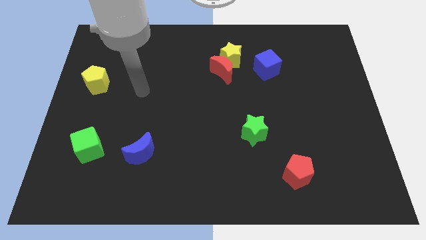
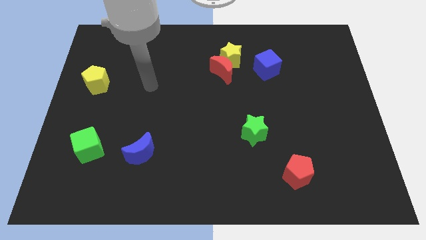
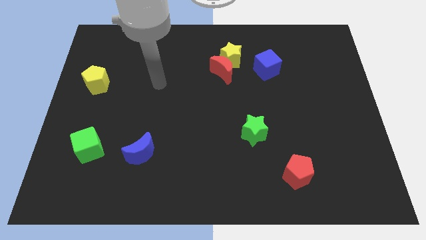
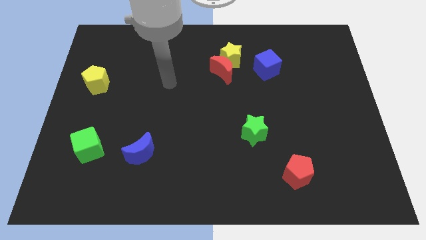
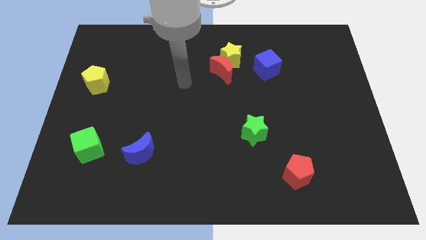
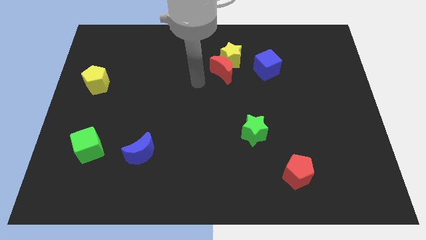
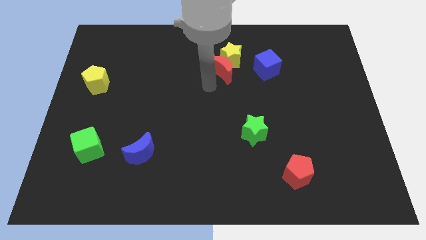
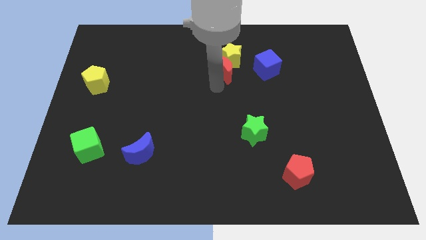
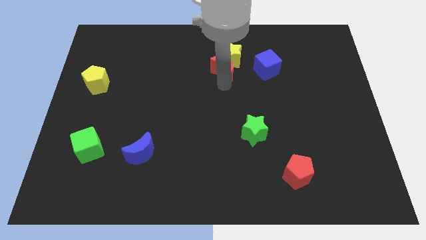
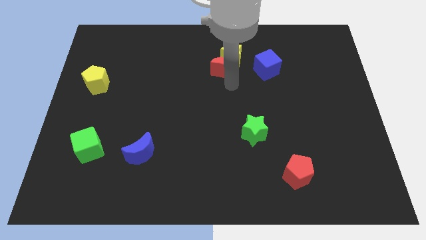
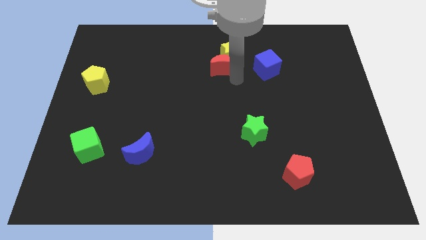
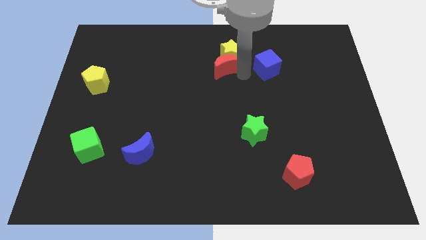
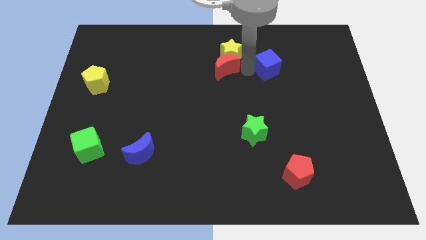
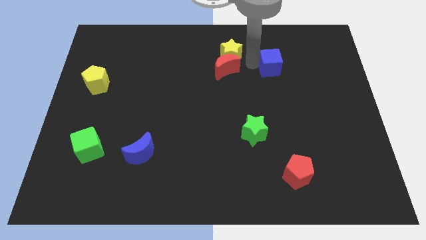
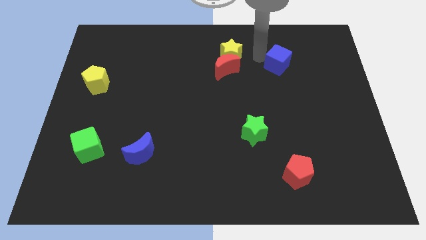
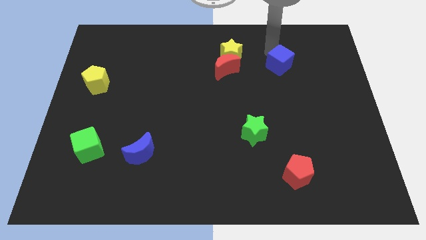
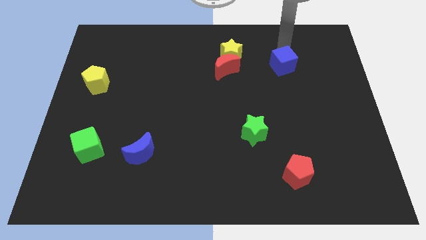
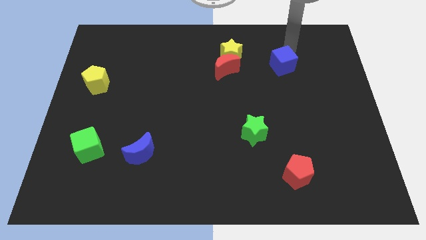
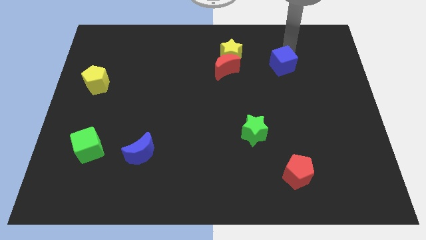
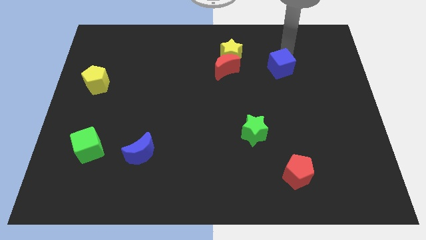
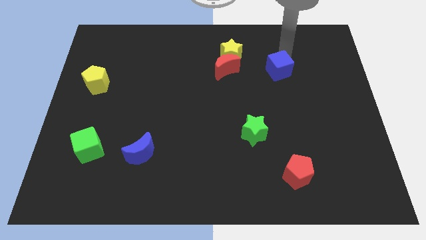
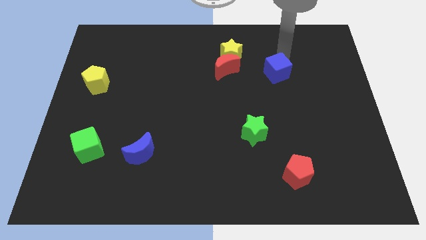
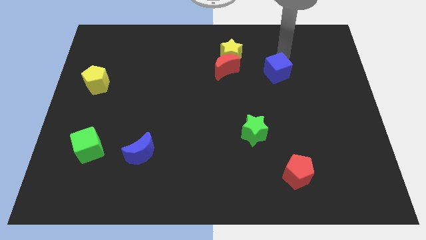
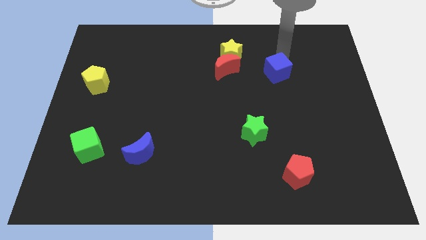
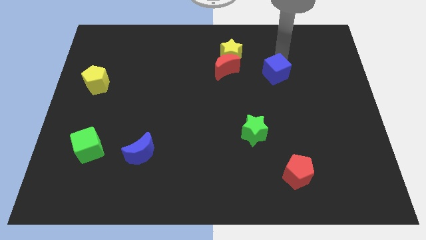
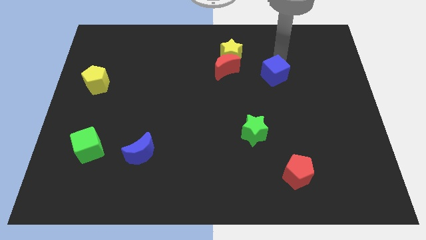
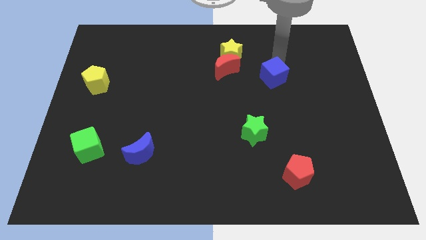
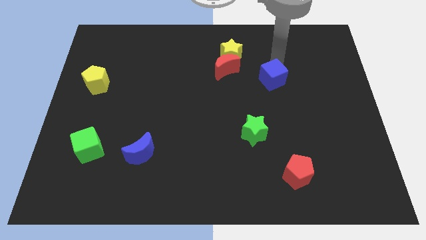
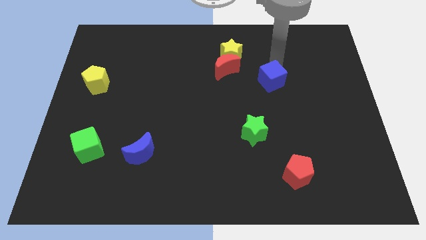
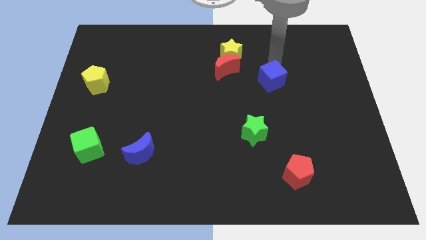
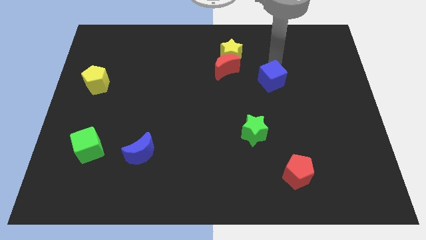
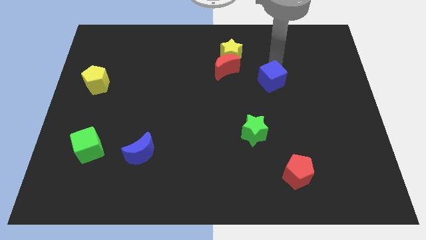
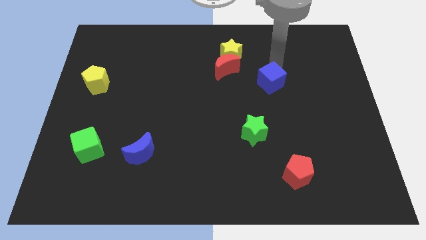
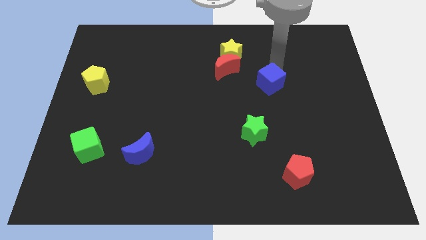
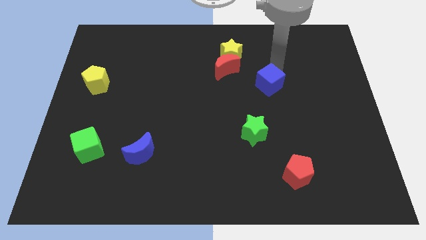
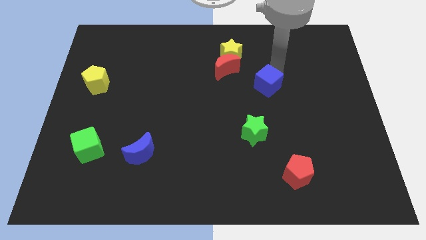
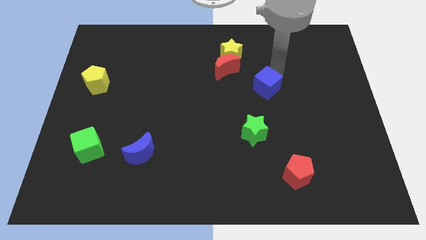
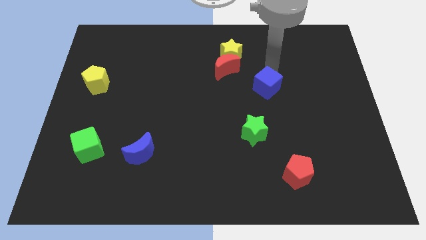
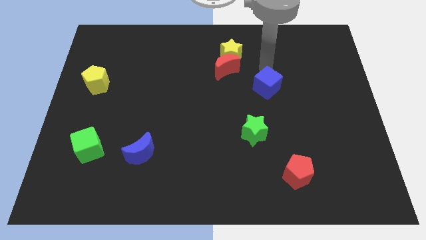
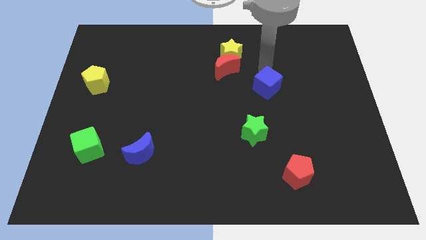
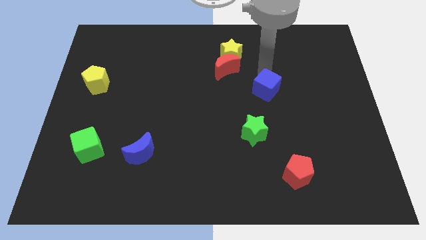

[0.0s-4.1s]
slightly slide the blue cube downwards

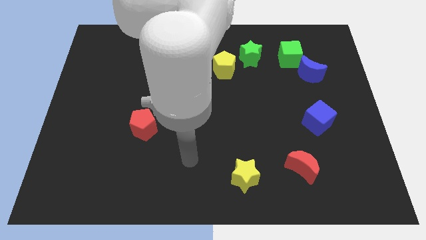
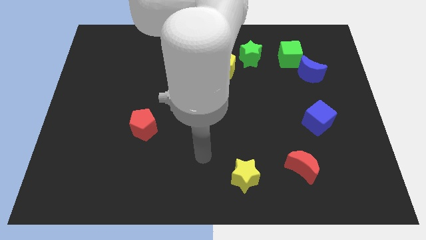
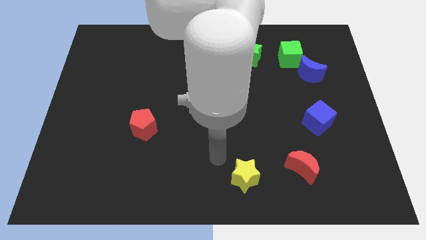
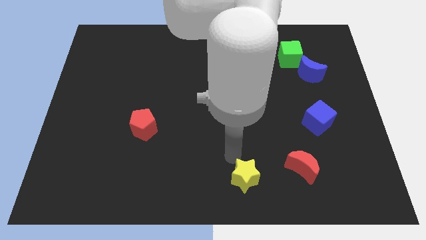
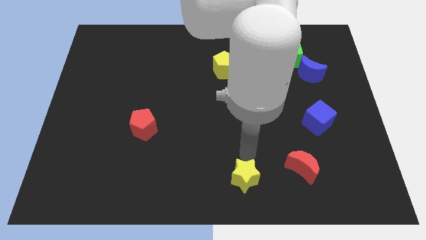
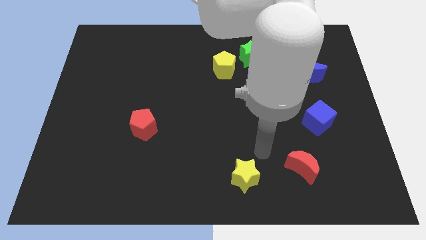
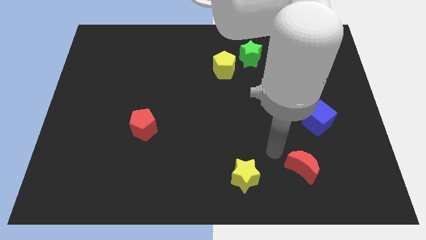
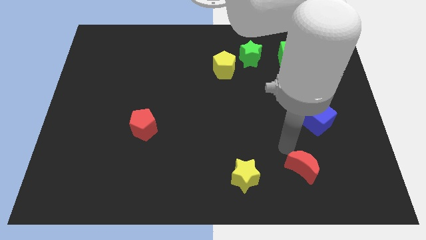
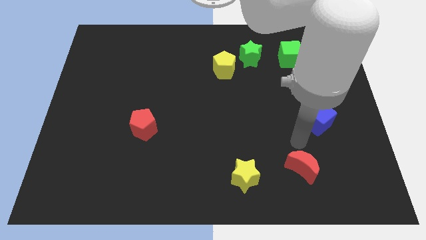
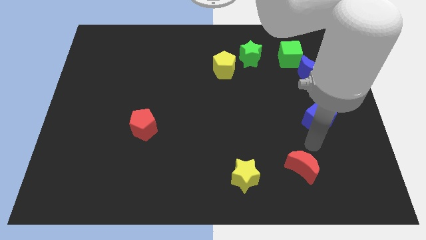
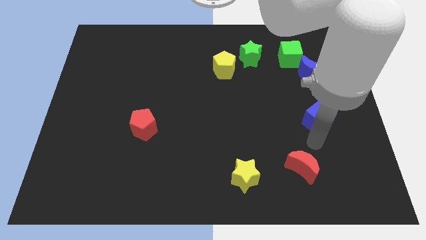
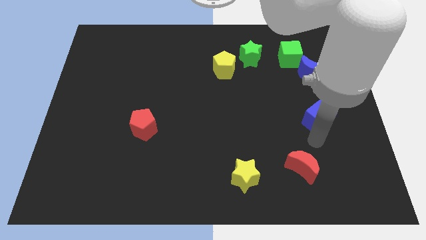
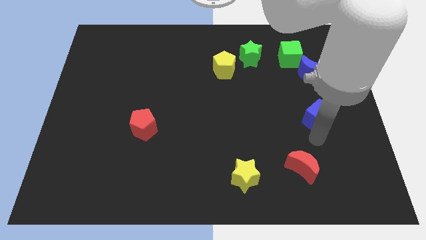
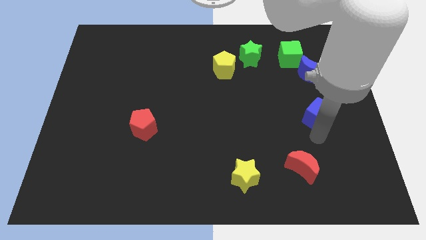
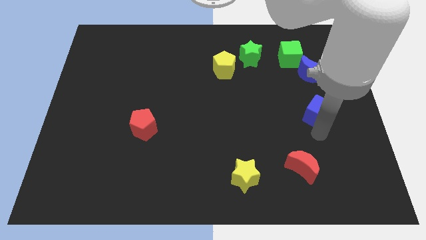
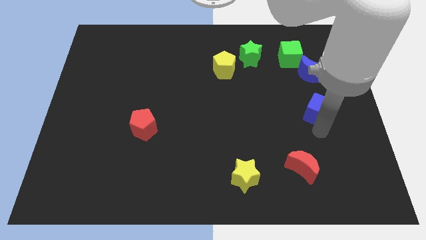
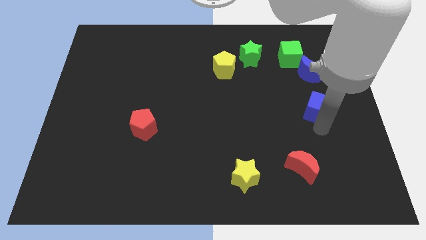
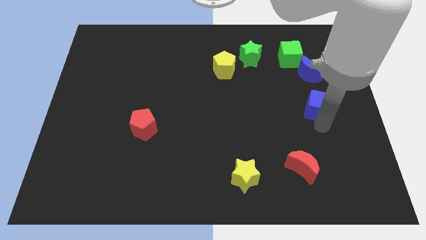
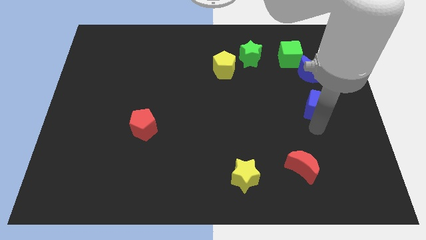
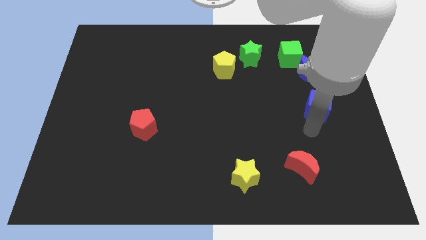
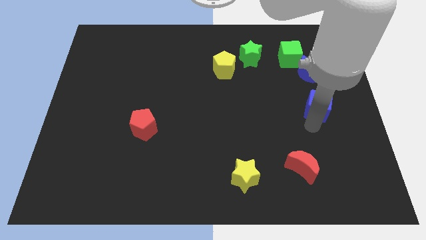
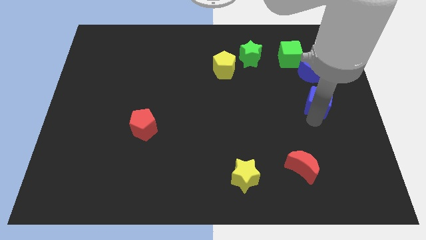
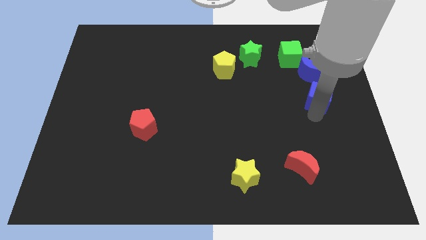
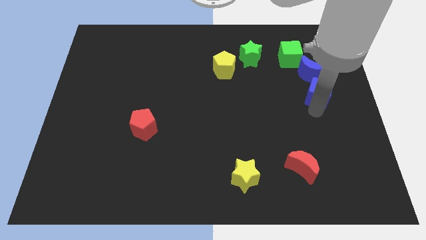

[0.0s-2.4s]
slightly move the blue cube up

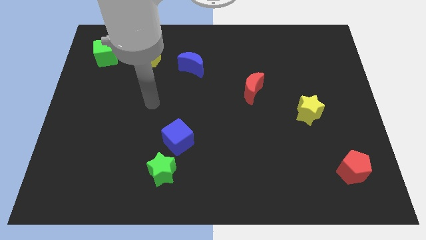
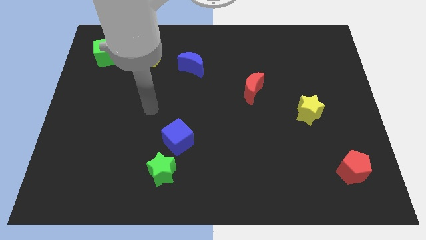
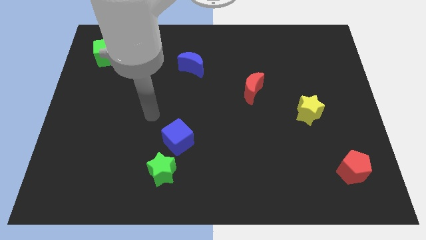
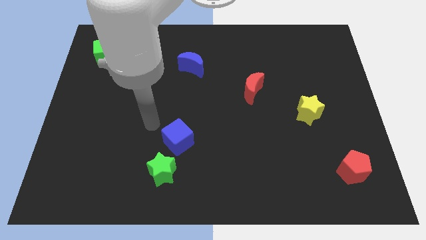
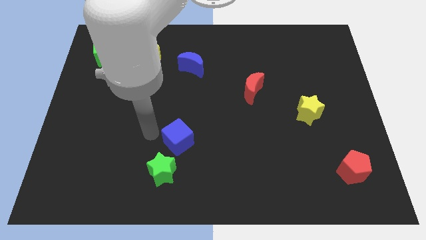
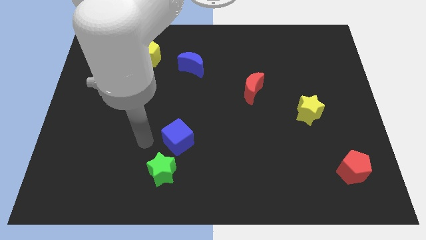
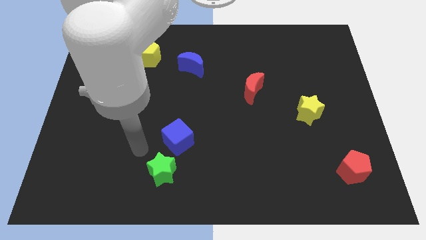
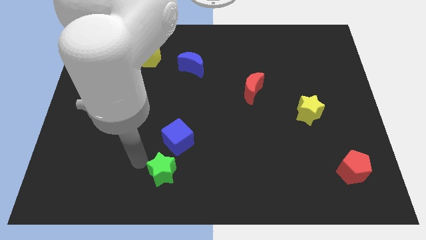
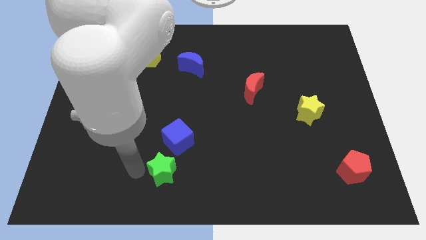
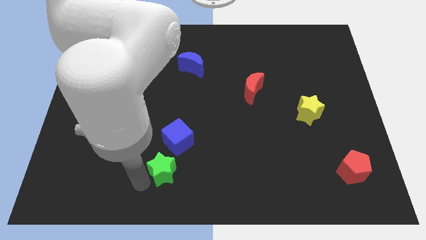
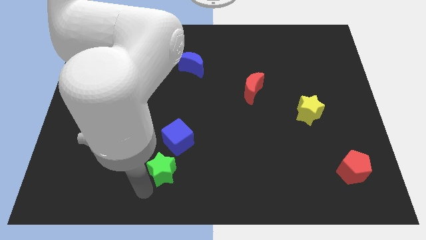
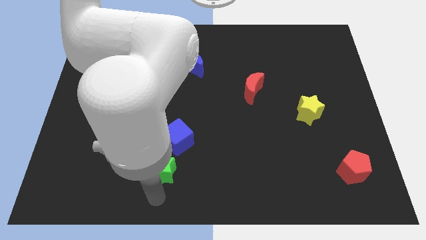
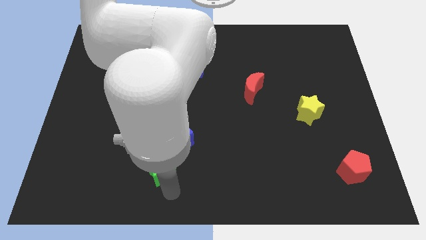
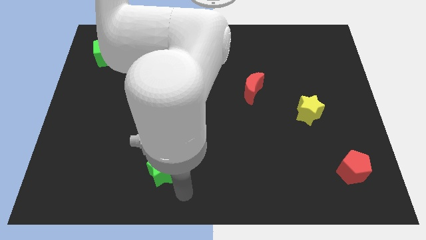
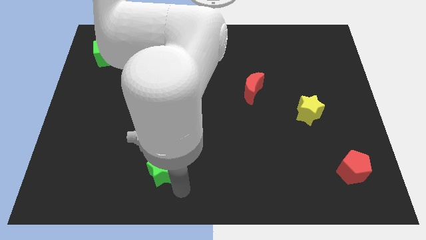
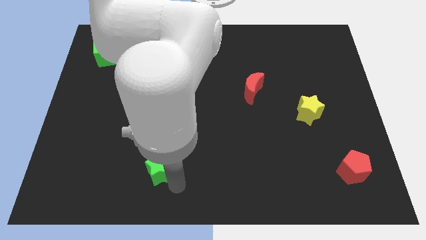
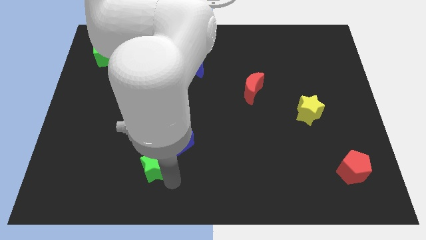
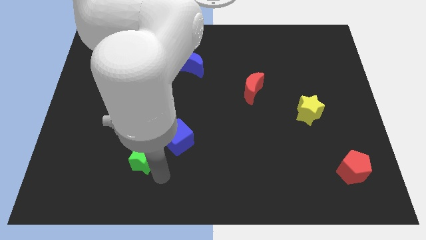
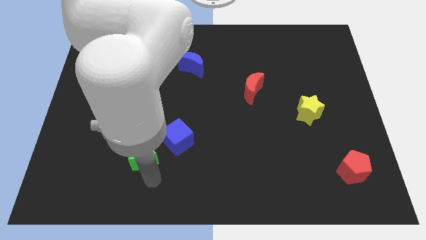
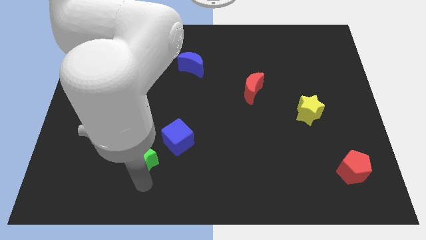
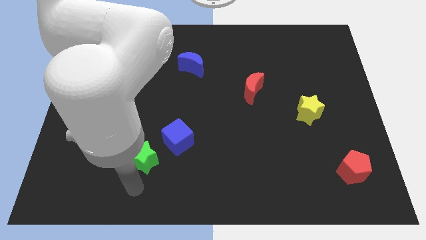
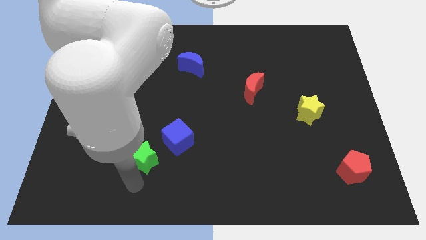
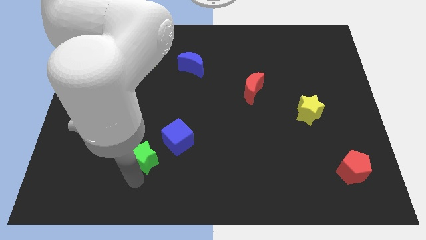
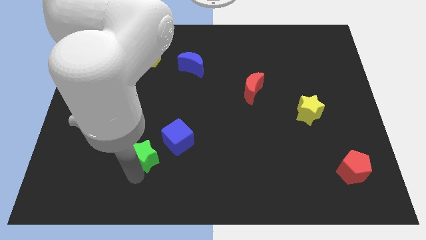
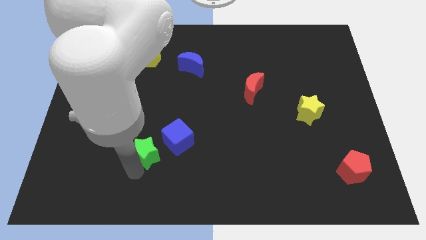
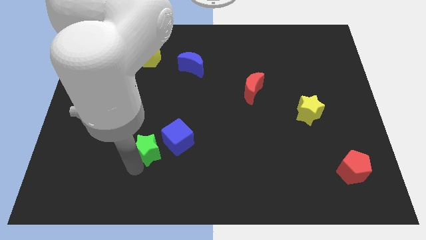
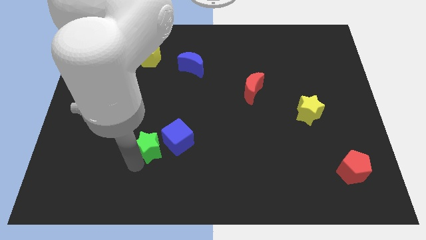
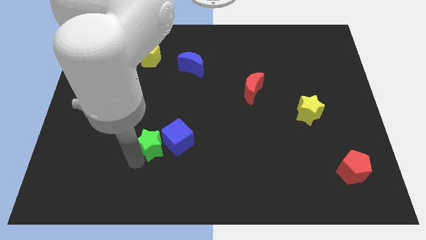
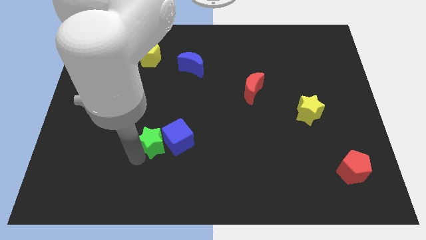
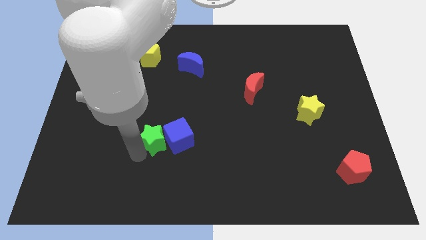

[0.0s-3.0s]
slightly push the green star upwards
